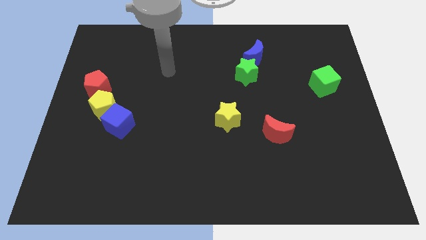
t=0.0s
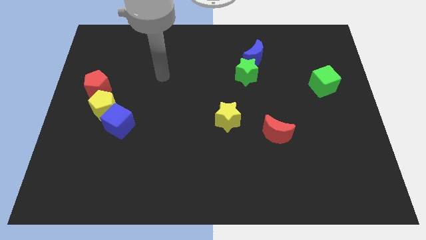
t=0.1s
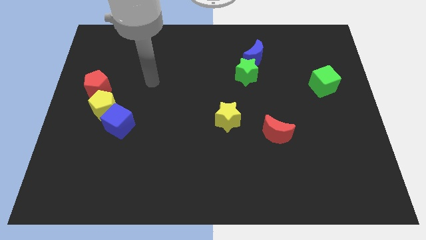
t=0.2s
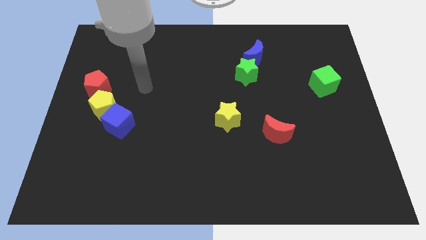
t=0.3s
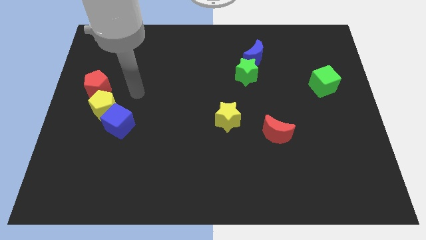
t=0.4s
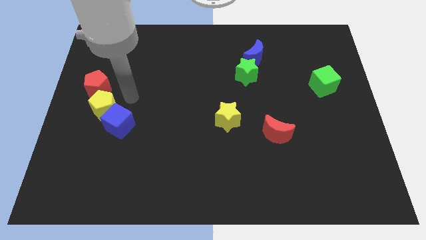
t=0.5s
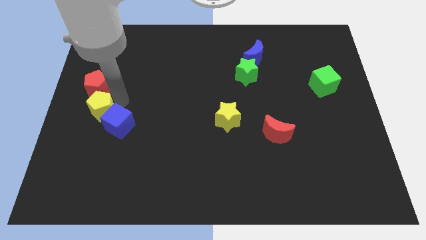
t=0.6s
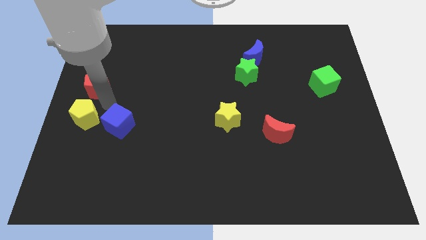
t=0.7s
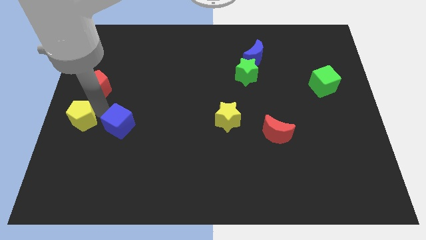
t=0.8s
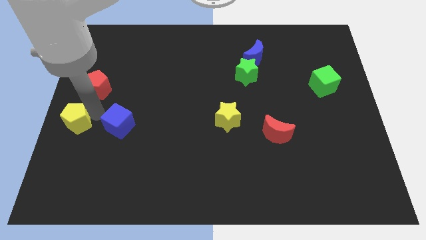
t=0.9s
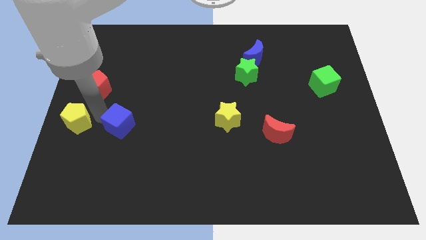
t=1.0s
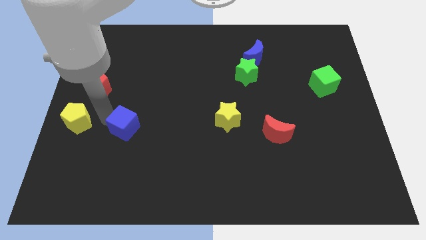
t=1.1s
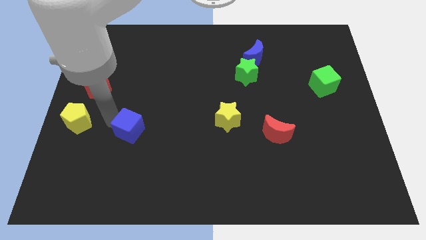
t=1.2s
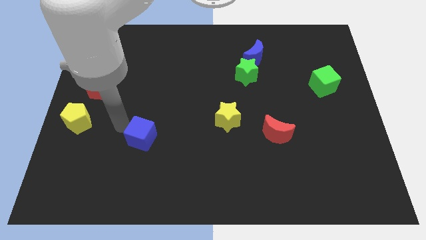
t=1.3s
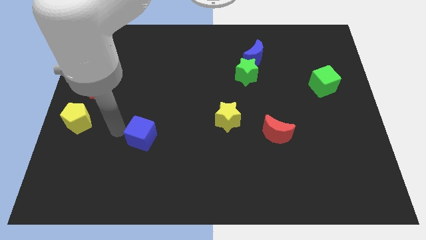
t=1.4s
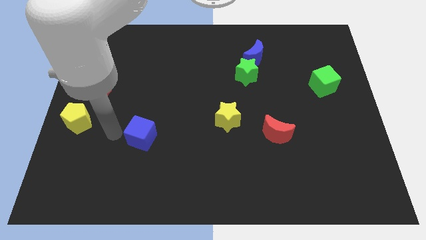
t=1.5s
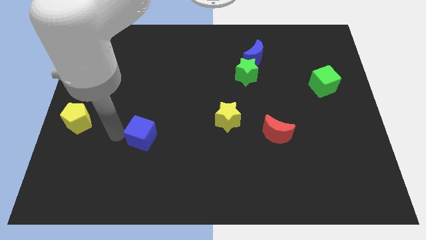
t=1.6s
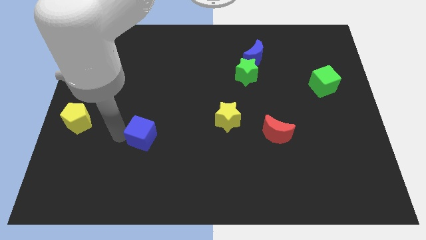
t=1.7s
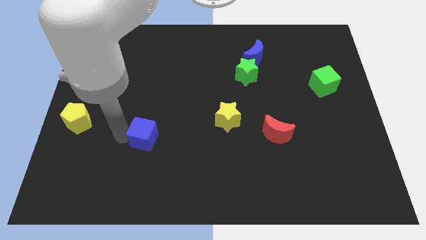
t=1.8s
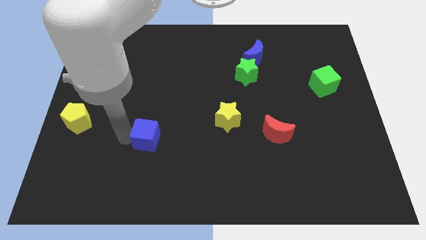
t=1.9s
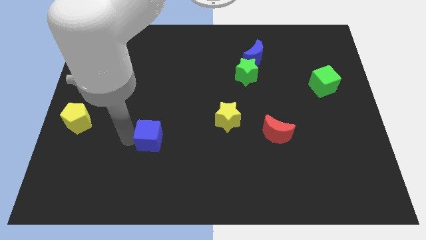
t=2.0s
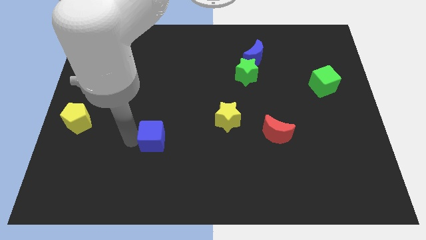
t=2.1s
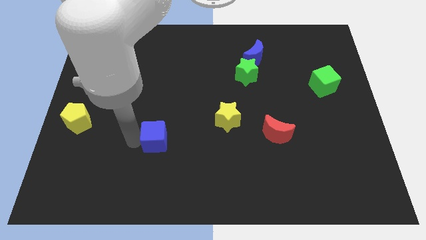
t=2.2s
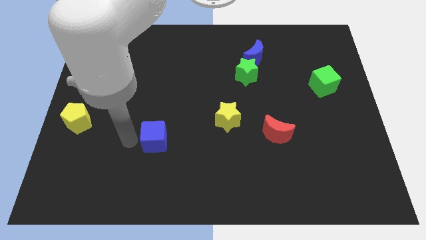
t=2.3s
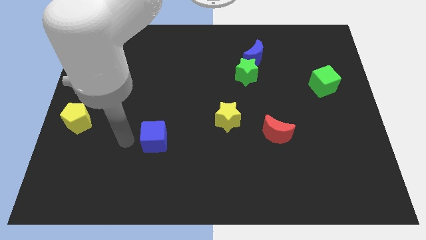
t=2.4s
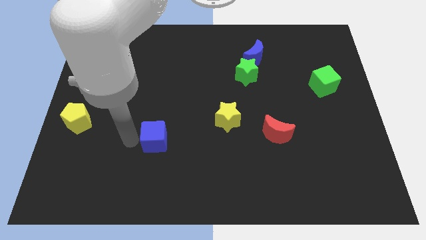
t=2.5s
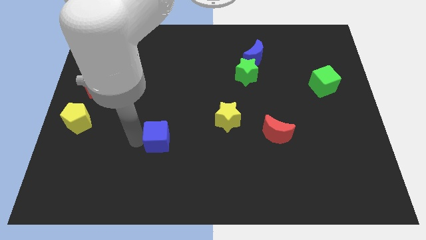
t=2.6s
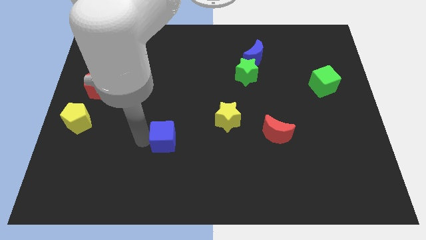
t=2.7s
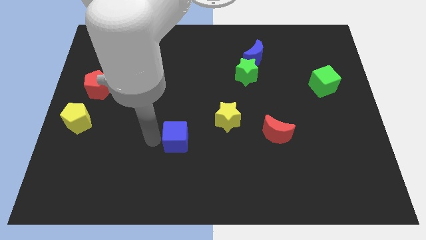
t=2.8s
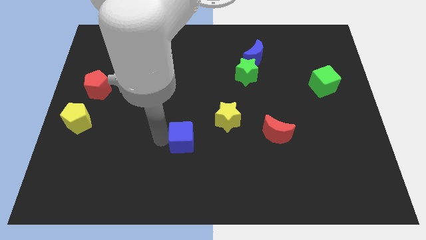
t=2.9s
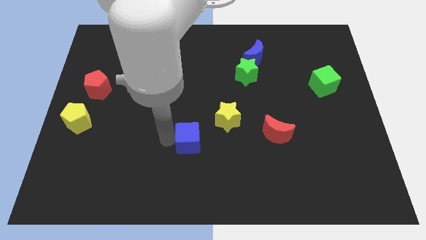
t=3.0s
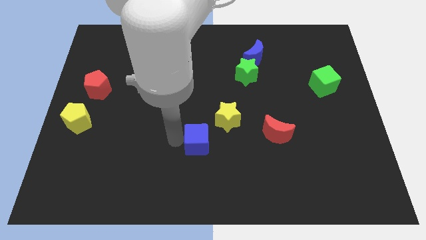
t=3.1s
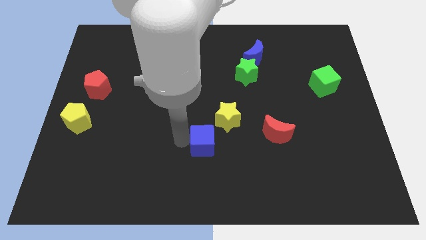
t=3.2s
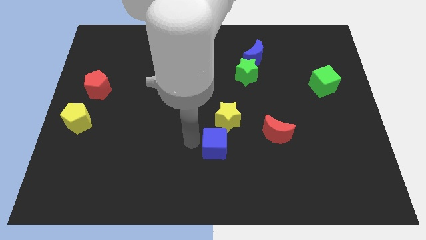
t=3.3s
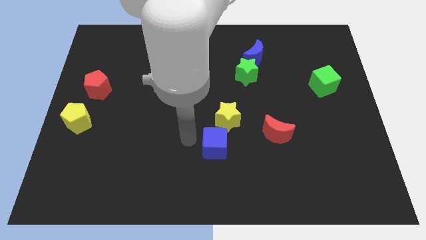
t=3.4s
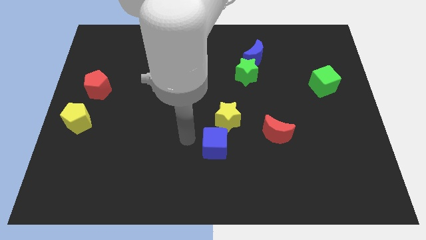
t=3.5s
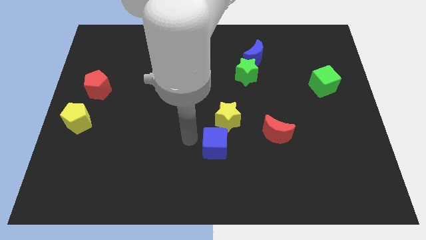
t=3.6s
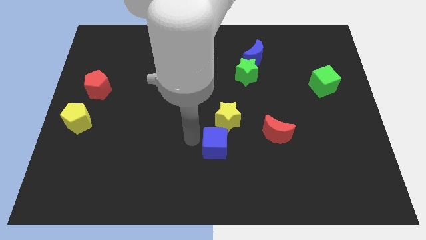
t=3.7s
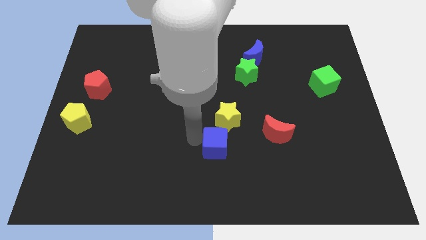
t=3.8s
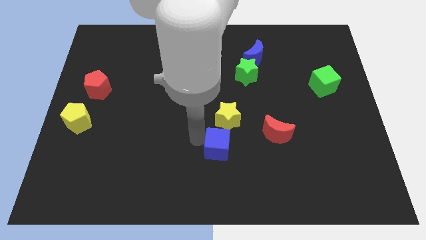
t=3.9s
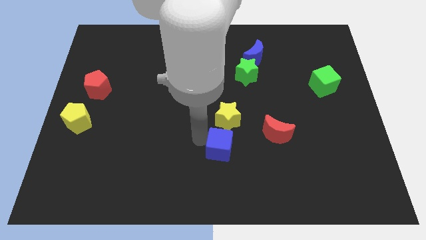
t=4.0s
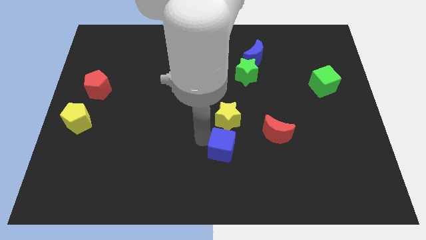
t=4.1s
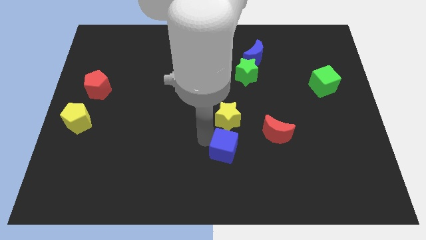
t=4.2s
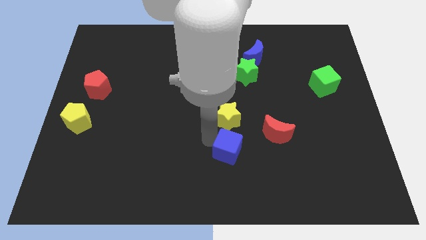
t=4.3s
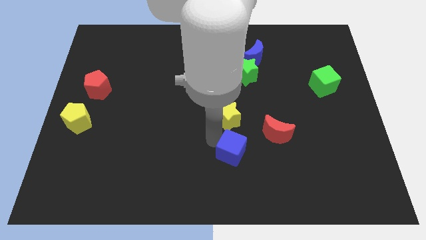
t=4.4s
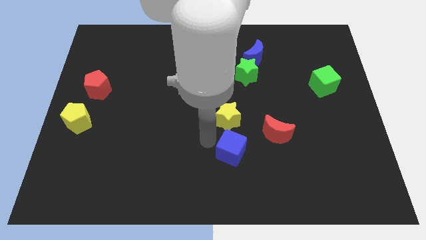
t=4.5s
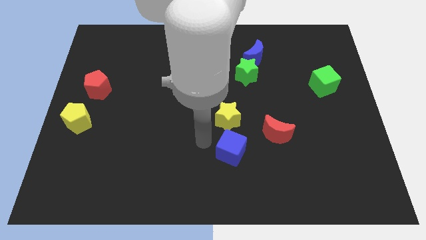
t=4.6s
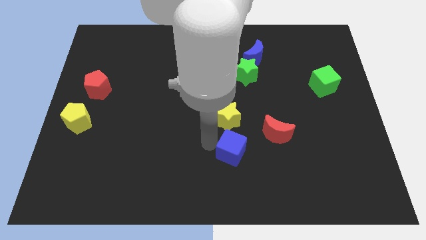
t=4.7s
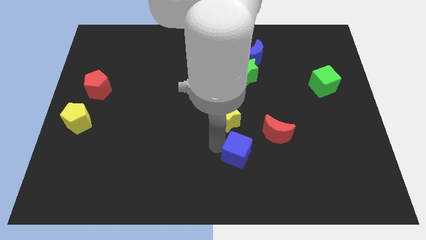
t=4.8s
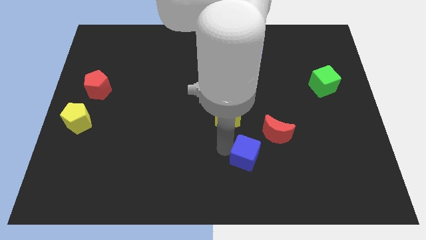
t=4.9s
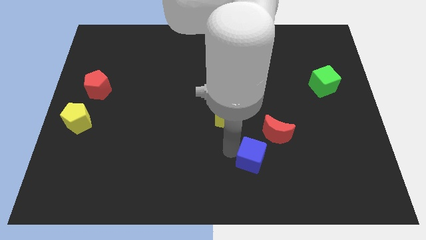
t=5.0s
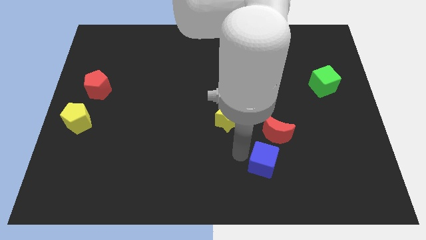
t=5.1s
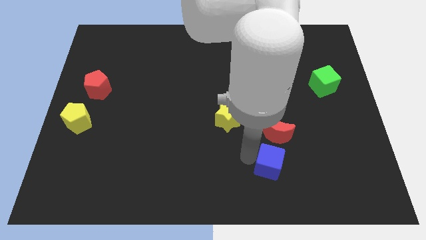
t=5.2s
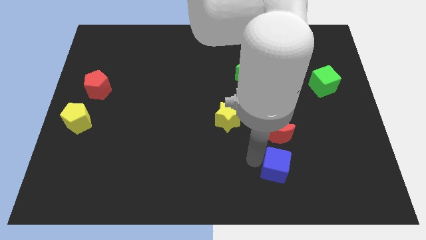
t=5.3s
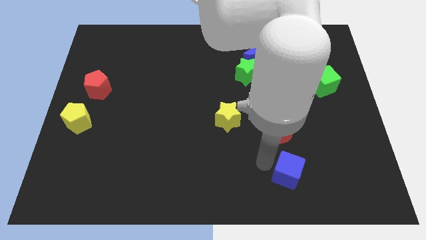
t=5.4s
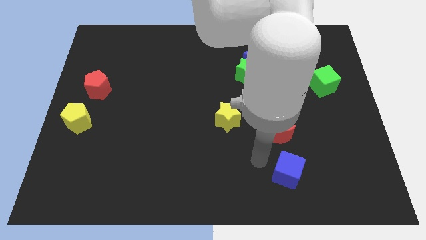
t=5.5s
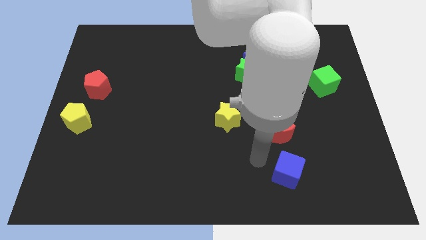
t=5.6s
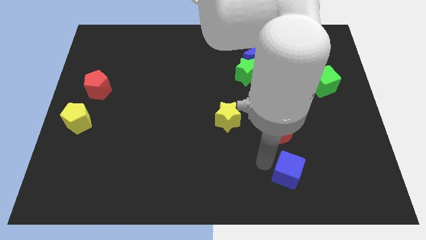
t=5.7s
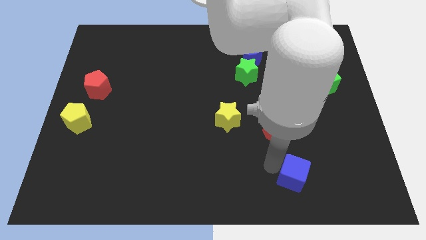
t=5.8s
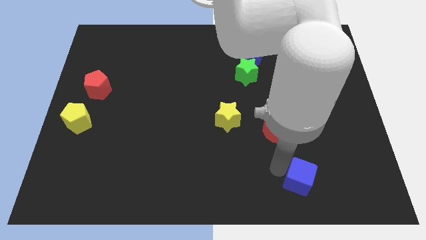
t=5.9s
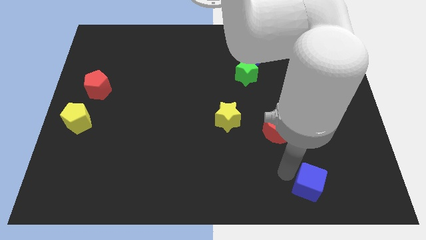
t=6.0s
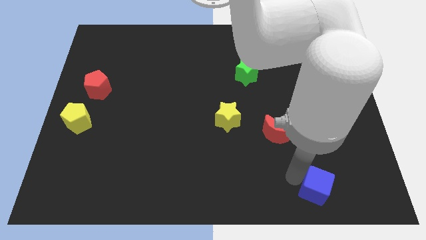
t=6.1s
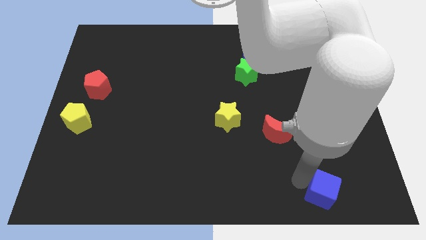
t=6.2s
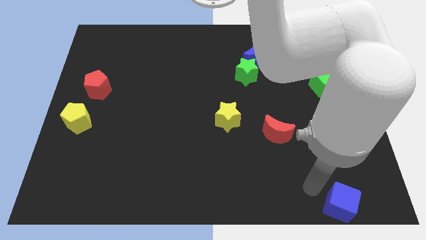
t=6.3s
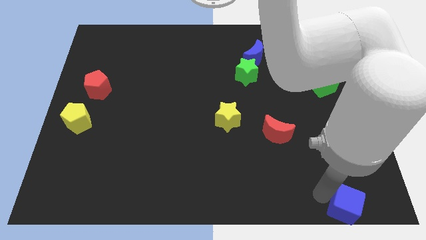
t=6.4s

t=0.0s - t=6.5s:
slide the blue cube to the lower right corner
